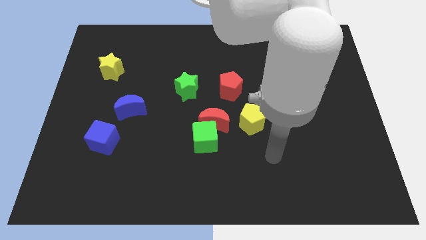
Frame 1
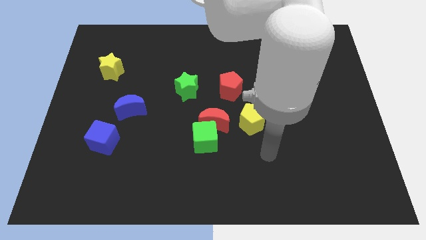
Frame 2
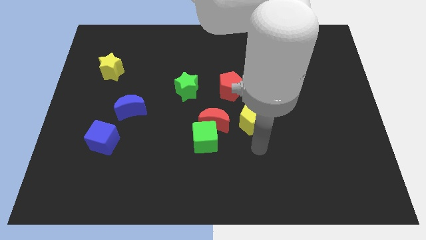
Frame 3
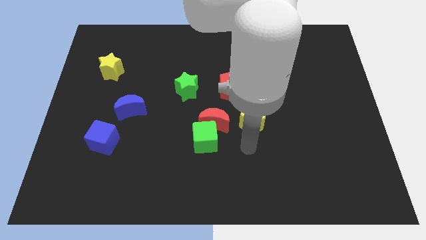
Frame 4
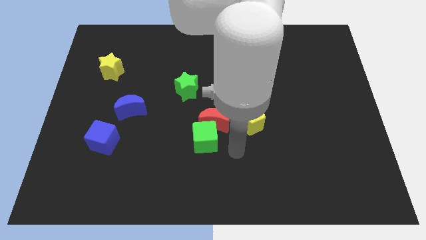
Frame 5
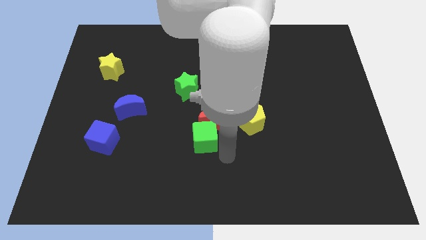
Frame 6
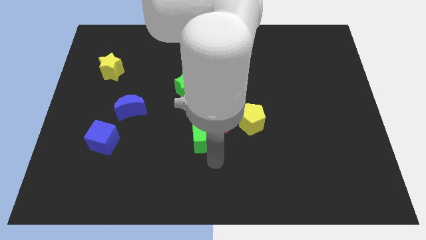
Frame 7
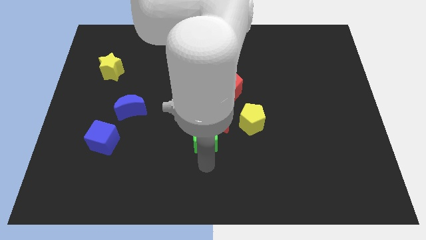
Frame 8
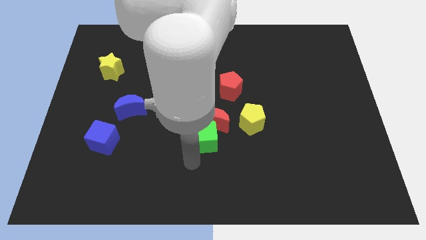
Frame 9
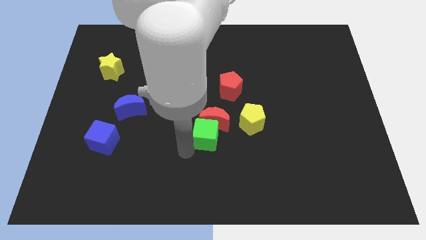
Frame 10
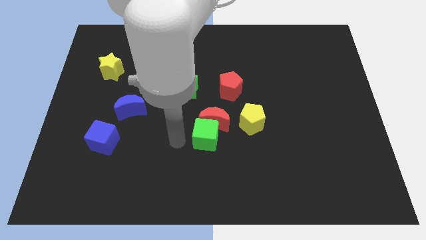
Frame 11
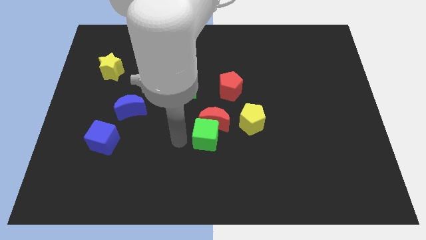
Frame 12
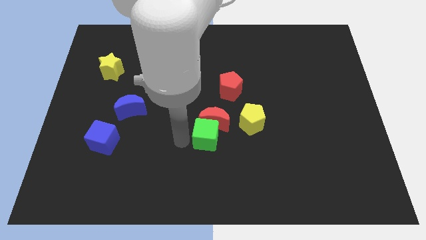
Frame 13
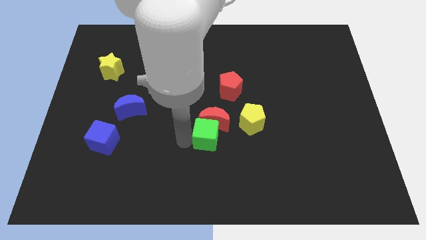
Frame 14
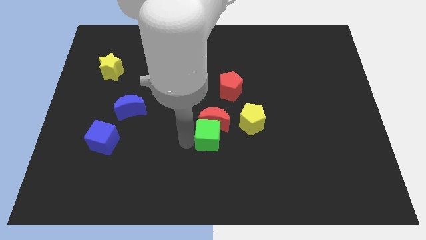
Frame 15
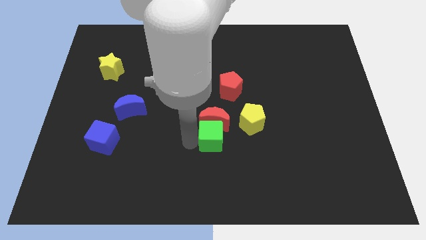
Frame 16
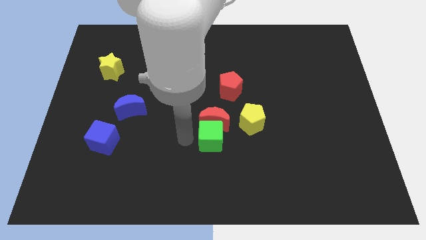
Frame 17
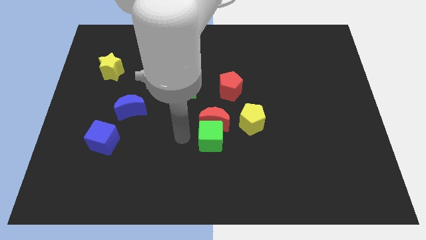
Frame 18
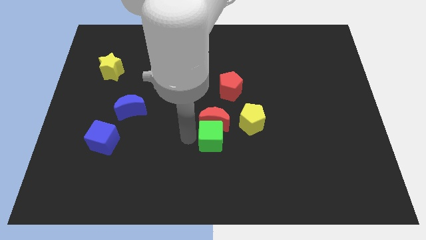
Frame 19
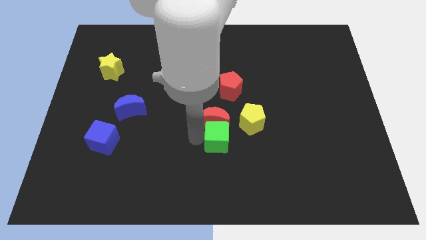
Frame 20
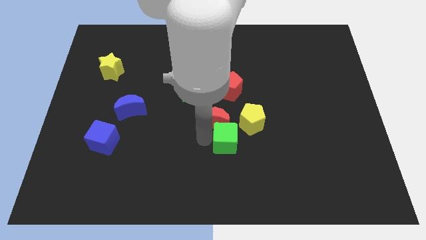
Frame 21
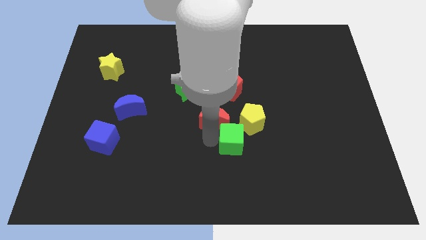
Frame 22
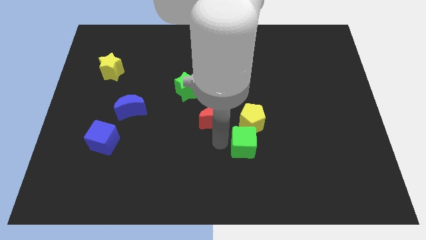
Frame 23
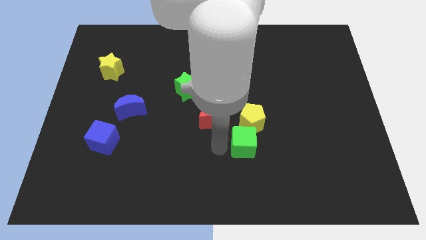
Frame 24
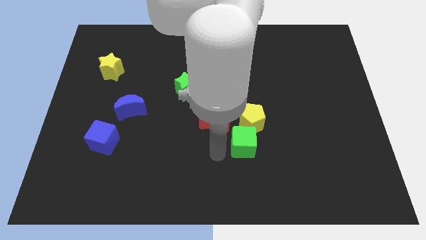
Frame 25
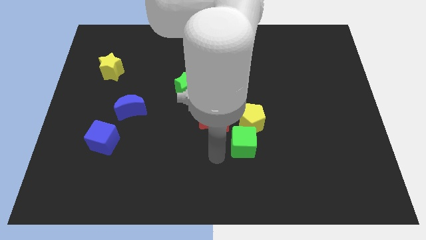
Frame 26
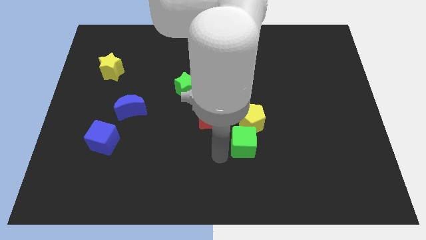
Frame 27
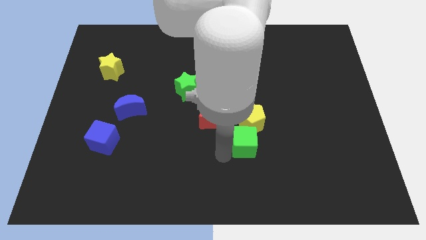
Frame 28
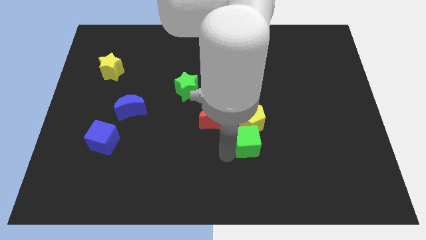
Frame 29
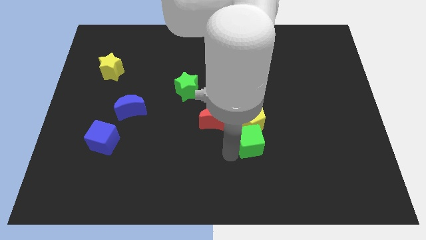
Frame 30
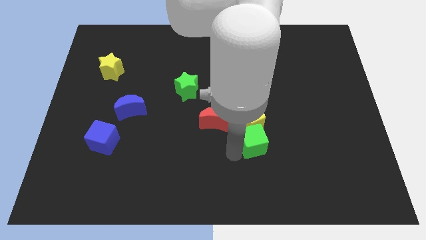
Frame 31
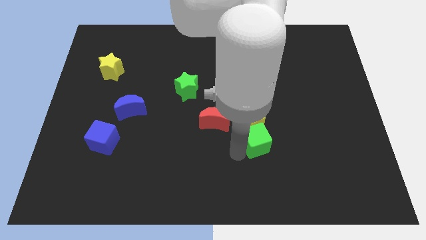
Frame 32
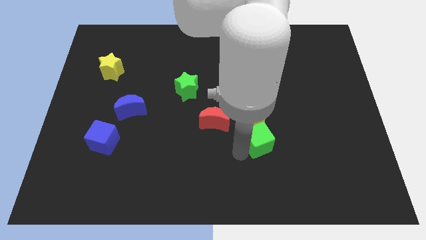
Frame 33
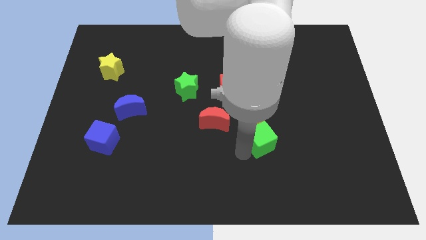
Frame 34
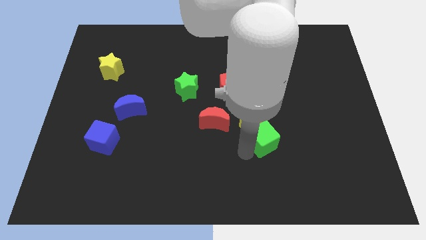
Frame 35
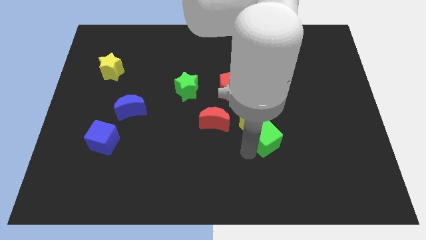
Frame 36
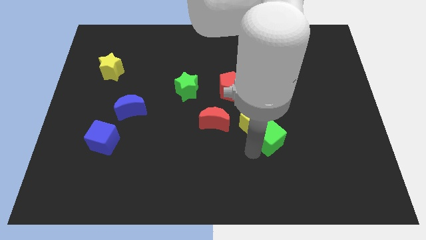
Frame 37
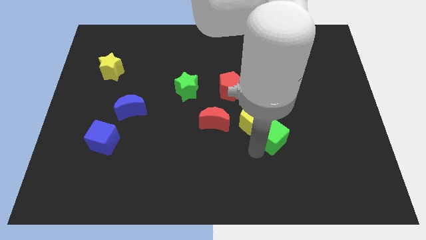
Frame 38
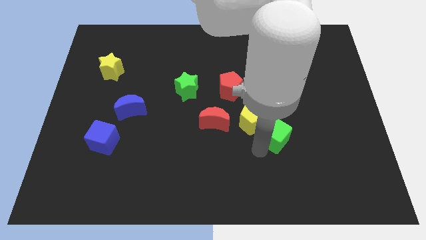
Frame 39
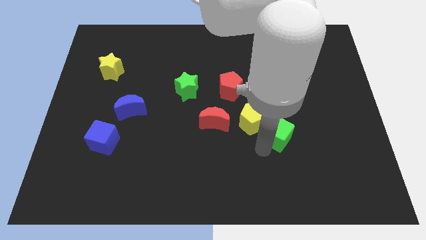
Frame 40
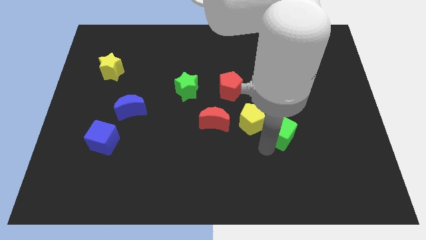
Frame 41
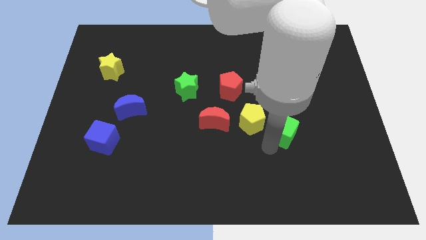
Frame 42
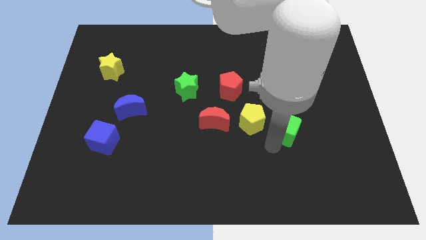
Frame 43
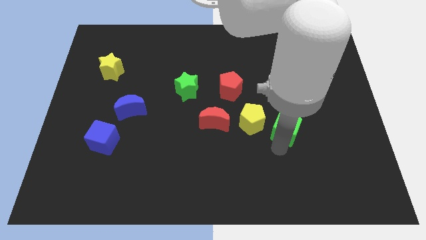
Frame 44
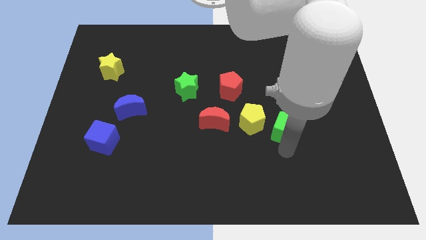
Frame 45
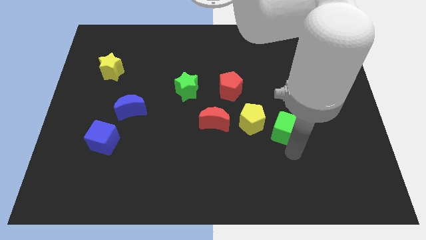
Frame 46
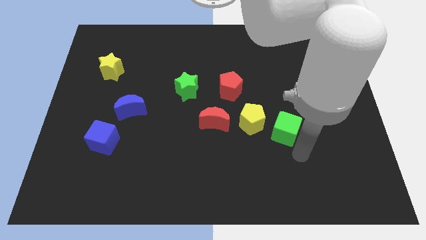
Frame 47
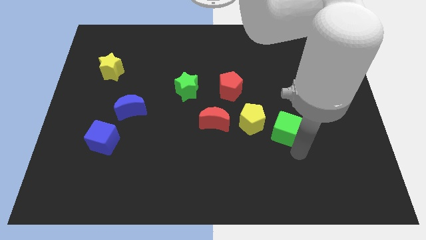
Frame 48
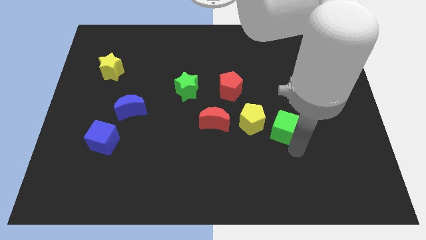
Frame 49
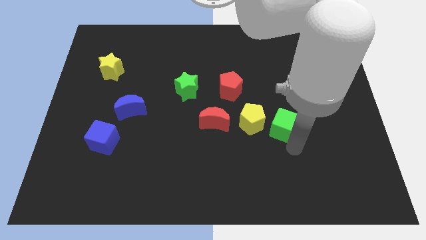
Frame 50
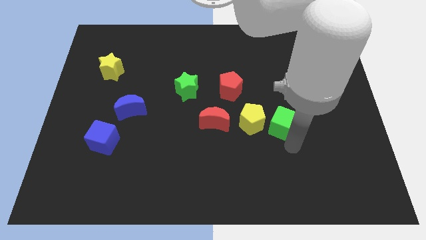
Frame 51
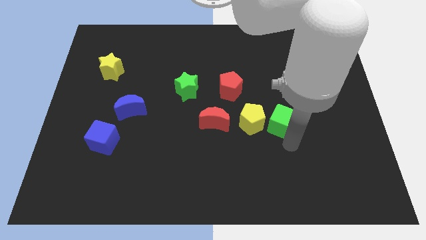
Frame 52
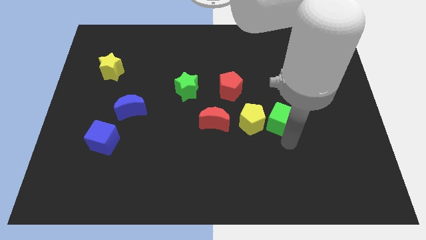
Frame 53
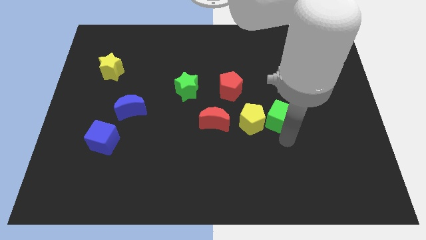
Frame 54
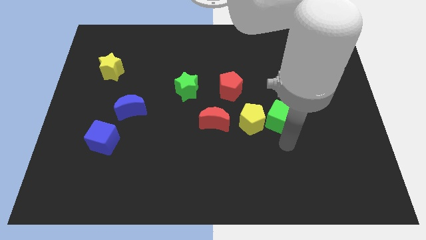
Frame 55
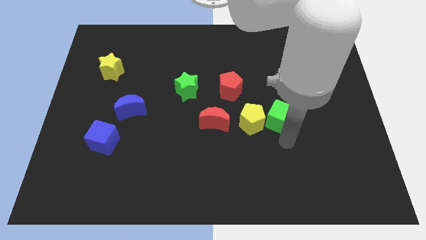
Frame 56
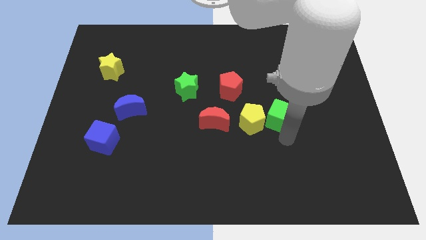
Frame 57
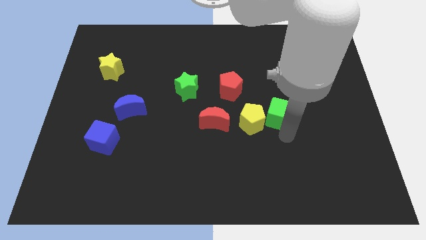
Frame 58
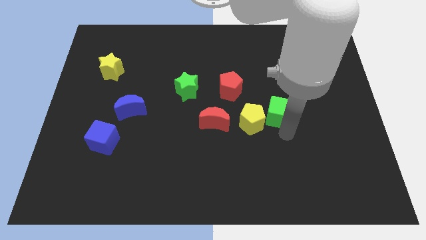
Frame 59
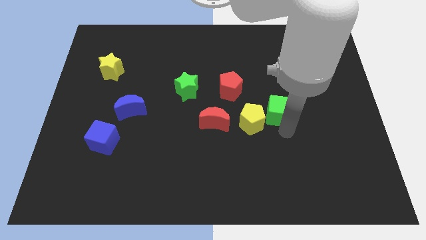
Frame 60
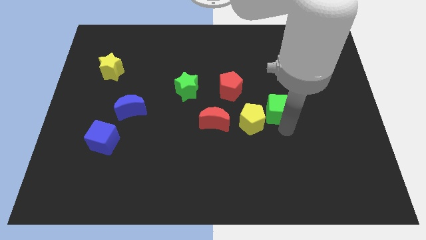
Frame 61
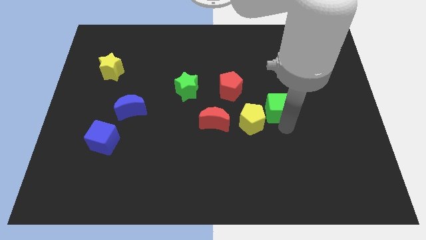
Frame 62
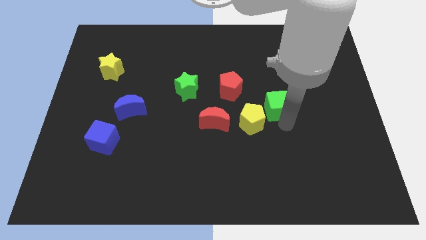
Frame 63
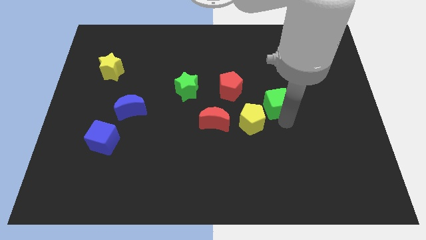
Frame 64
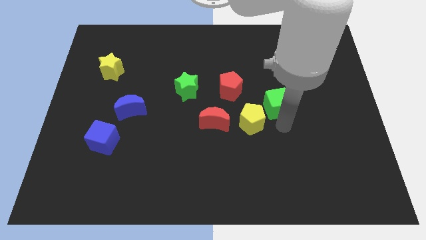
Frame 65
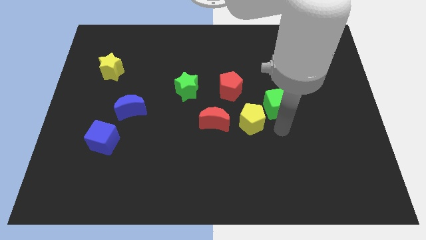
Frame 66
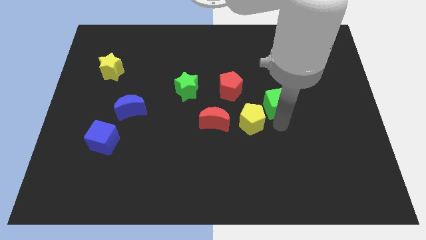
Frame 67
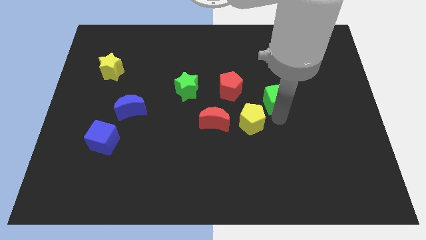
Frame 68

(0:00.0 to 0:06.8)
push the green cube to the right of the red pentagon

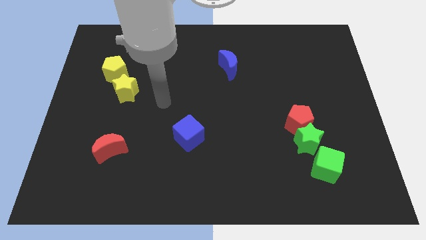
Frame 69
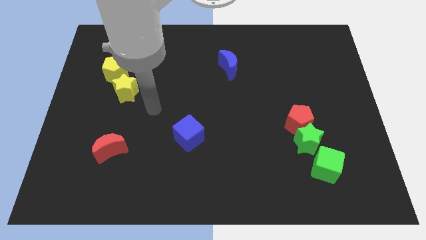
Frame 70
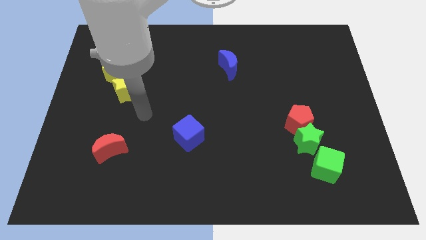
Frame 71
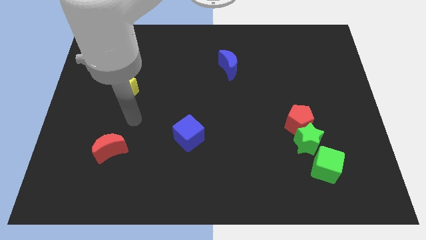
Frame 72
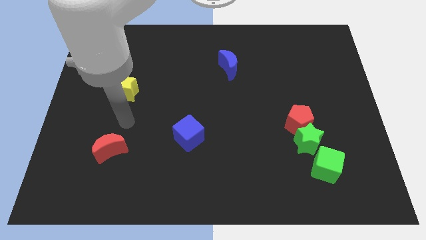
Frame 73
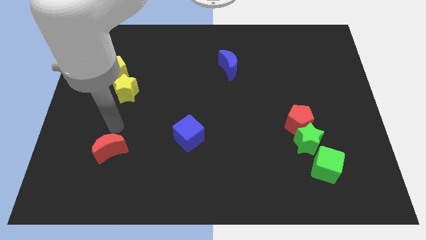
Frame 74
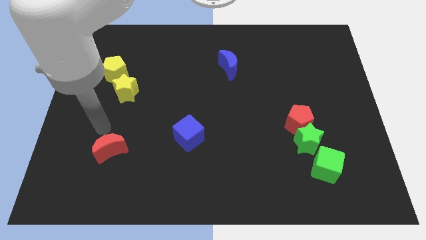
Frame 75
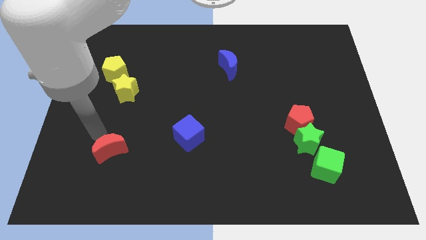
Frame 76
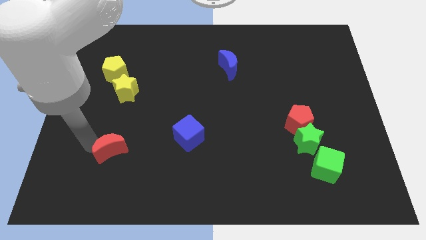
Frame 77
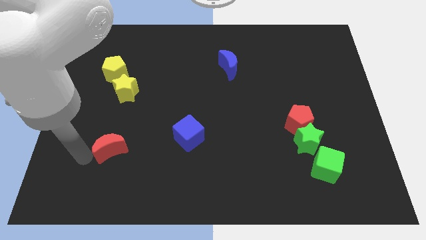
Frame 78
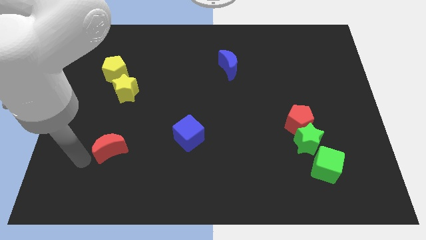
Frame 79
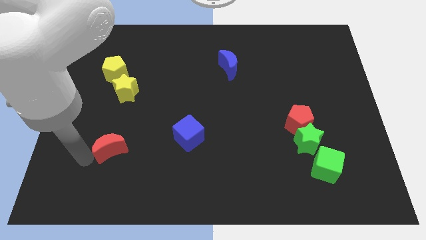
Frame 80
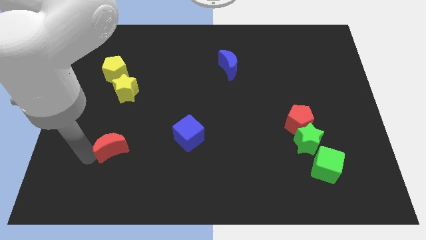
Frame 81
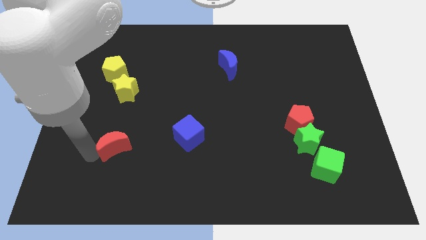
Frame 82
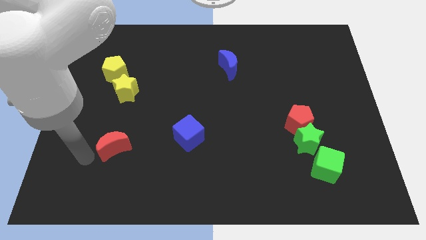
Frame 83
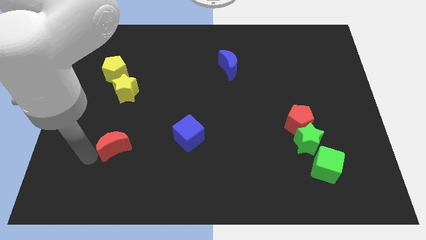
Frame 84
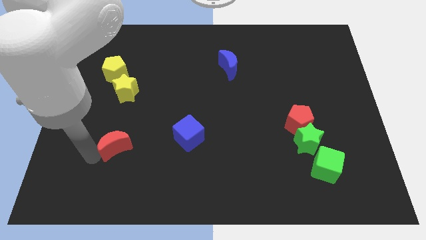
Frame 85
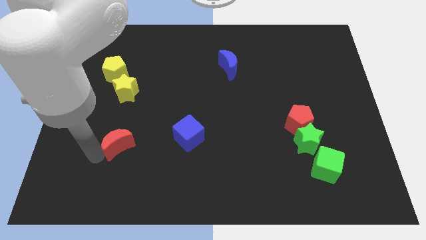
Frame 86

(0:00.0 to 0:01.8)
push the red moon to the left of the blue cube
